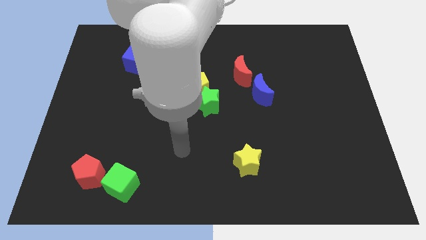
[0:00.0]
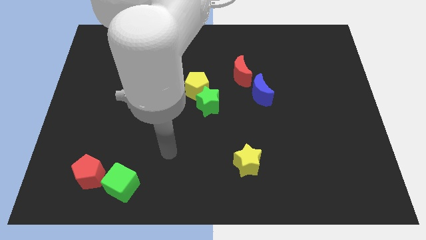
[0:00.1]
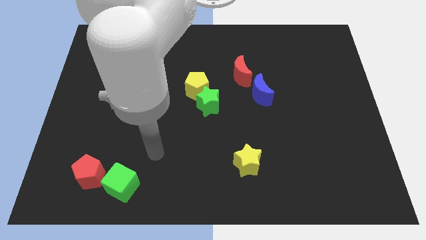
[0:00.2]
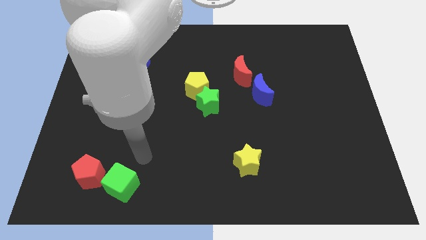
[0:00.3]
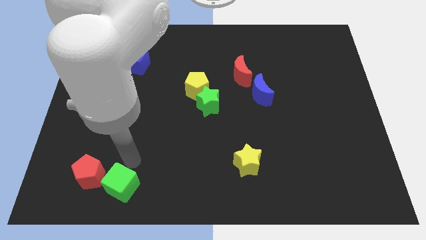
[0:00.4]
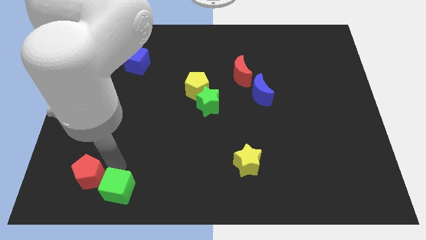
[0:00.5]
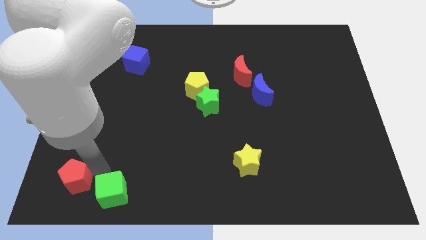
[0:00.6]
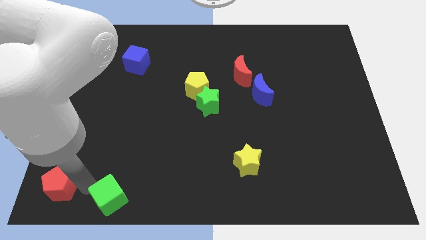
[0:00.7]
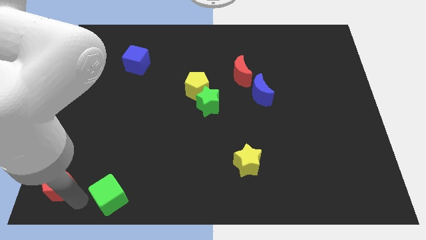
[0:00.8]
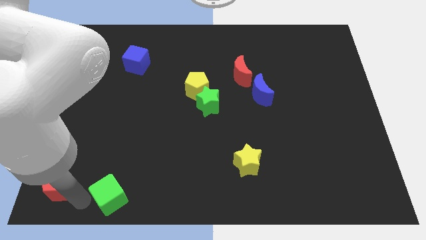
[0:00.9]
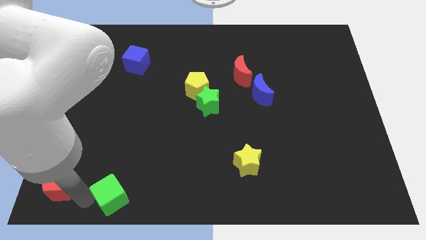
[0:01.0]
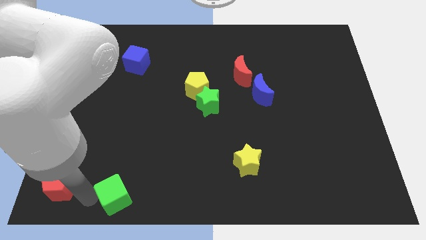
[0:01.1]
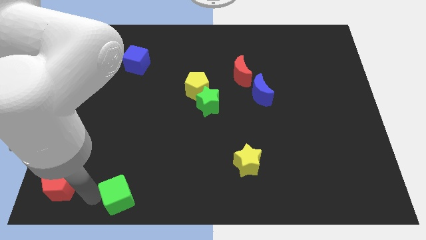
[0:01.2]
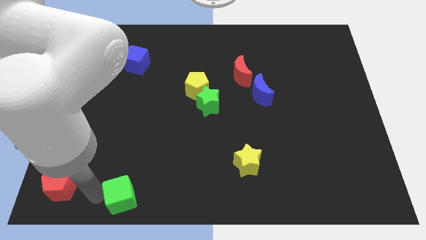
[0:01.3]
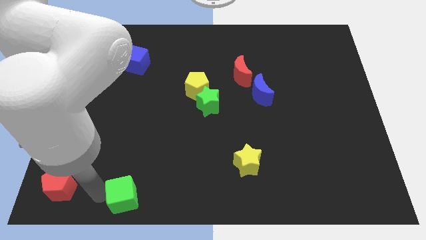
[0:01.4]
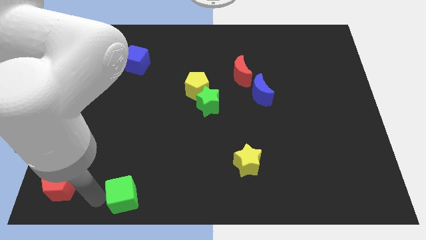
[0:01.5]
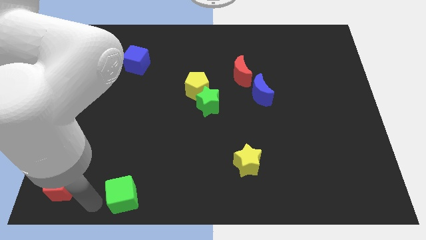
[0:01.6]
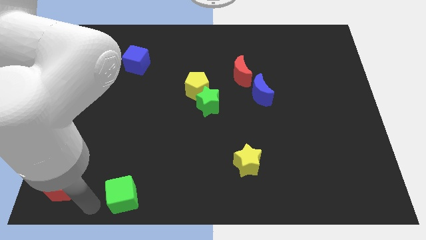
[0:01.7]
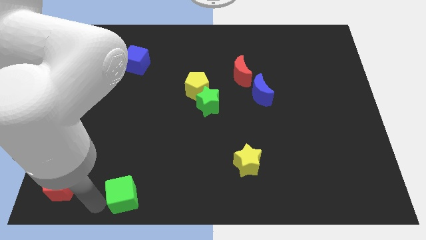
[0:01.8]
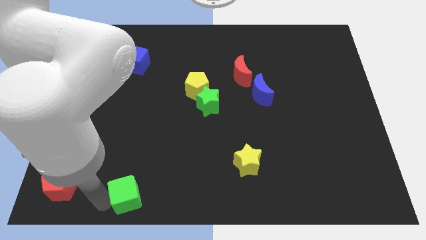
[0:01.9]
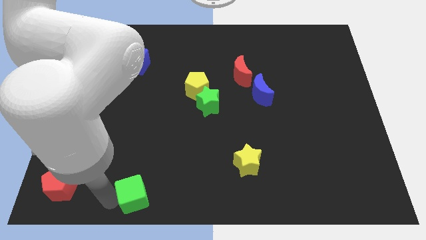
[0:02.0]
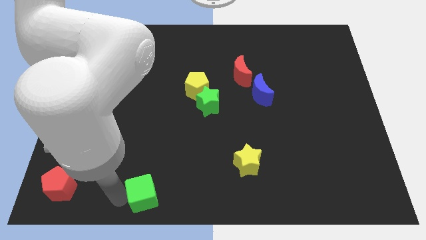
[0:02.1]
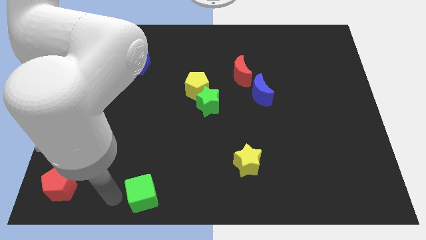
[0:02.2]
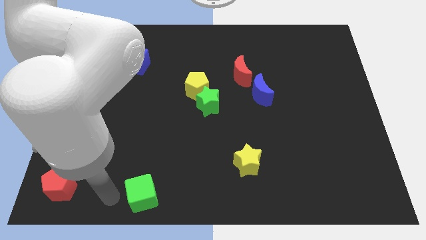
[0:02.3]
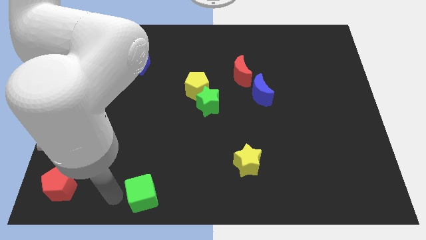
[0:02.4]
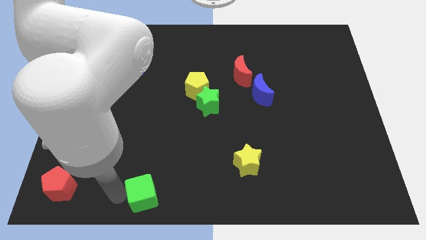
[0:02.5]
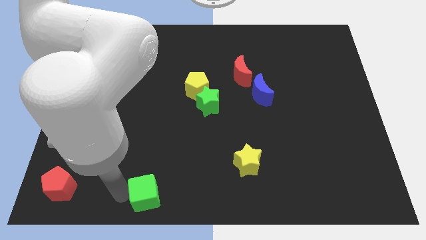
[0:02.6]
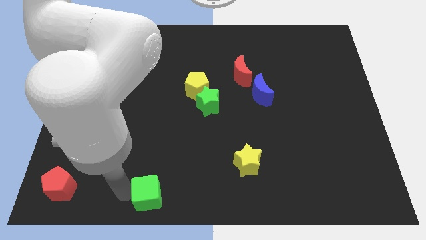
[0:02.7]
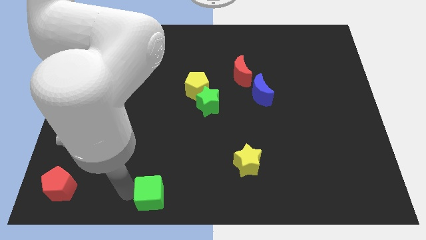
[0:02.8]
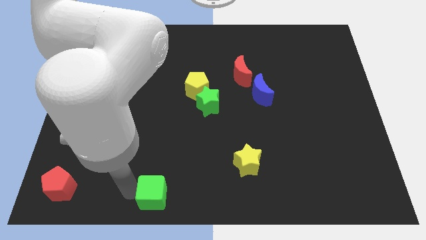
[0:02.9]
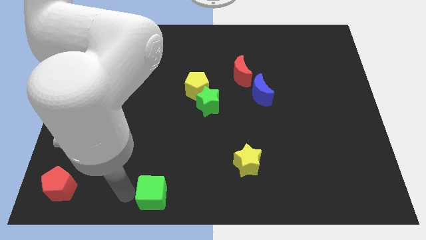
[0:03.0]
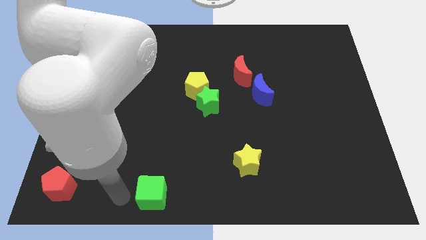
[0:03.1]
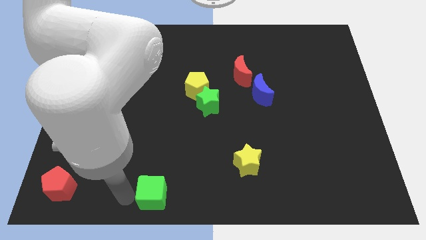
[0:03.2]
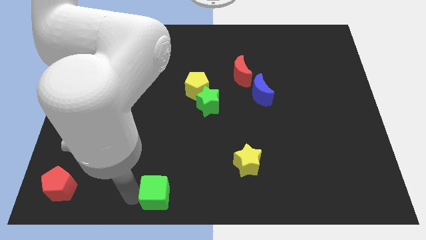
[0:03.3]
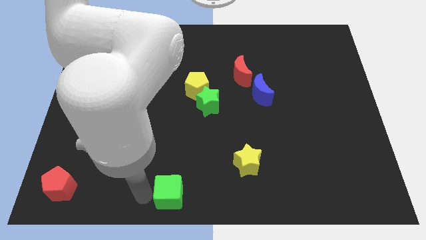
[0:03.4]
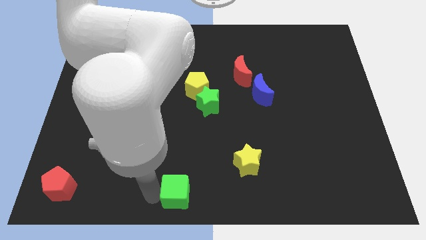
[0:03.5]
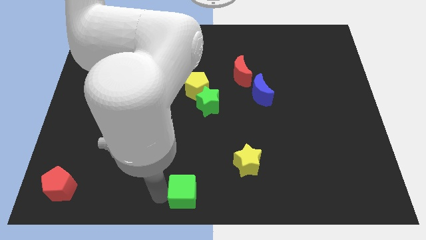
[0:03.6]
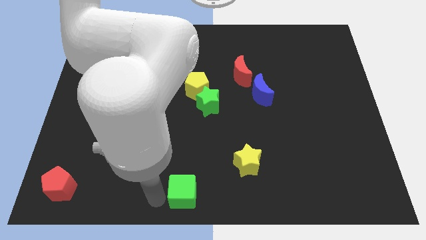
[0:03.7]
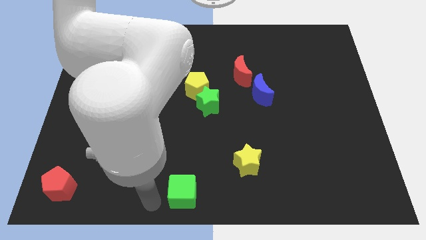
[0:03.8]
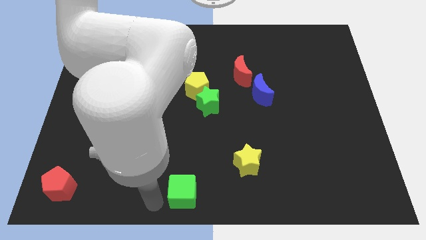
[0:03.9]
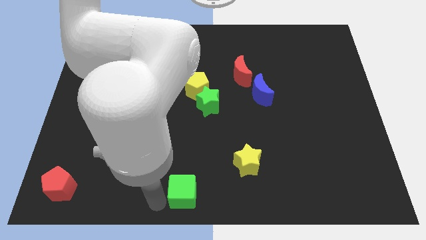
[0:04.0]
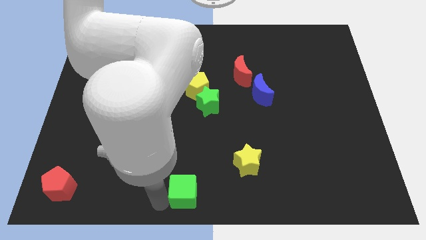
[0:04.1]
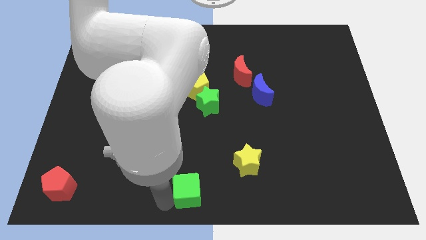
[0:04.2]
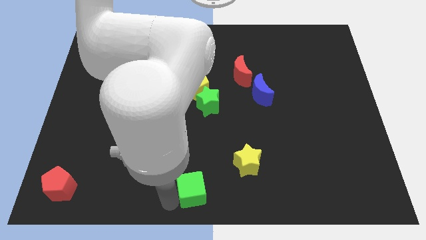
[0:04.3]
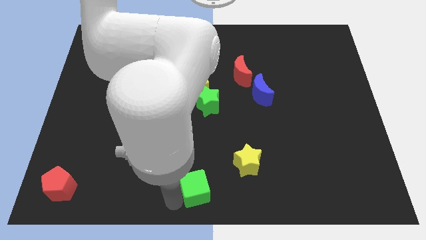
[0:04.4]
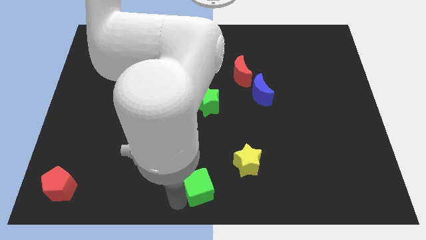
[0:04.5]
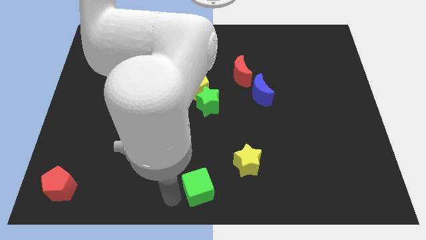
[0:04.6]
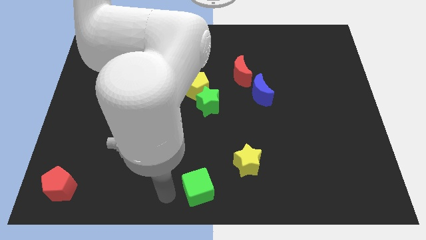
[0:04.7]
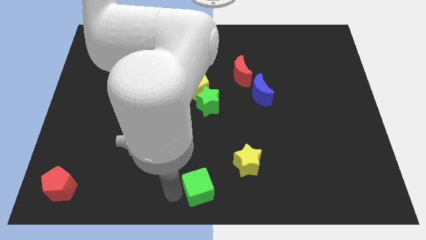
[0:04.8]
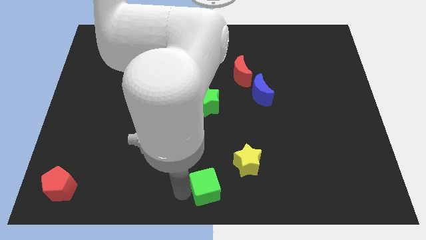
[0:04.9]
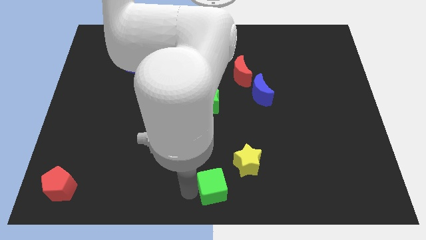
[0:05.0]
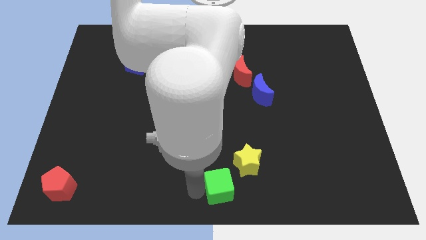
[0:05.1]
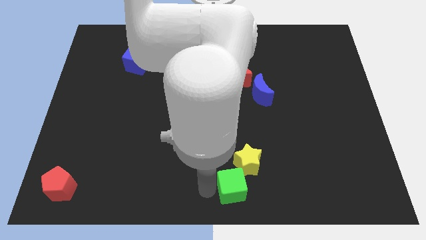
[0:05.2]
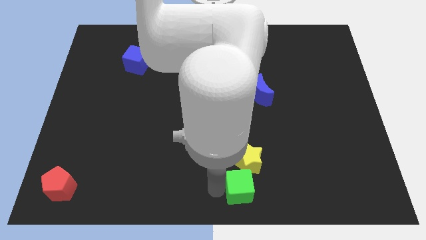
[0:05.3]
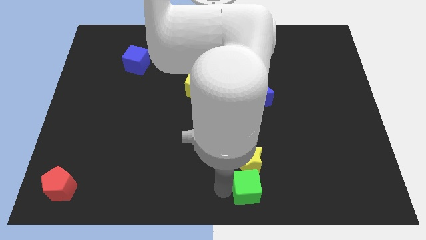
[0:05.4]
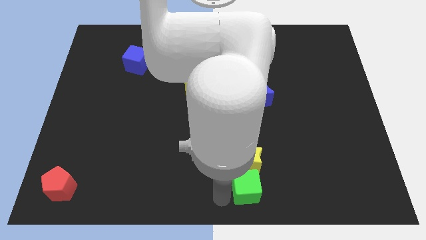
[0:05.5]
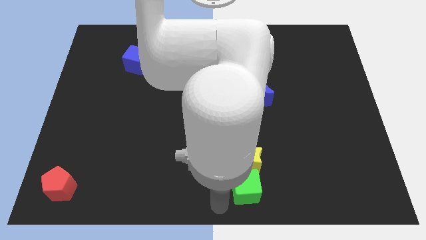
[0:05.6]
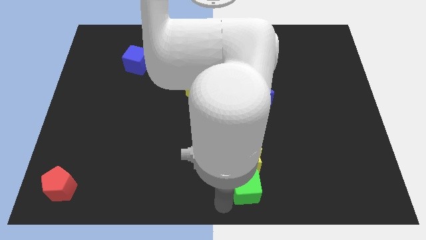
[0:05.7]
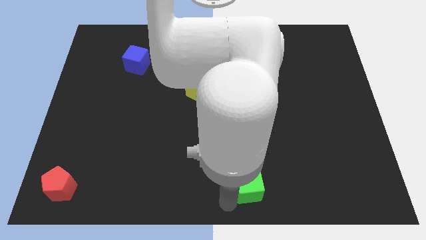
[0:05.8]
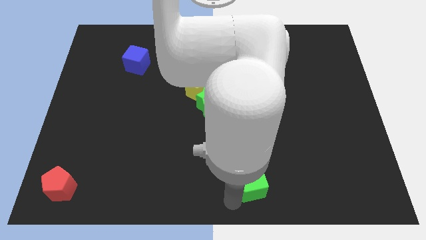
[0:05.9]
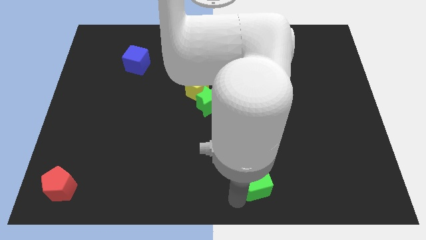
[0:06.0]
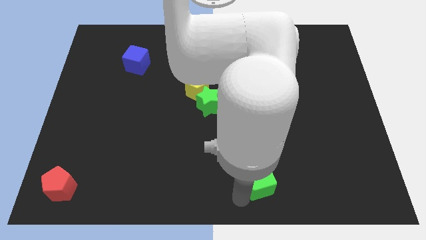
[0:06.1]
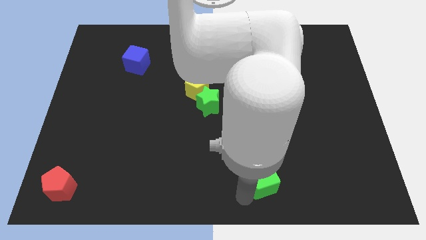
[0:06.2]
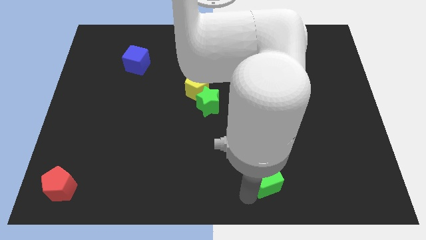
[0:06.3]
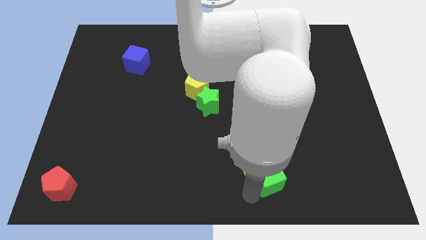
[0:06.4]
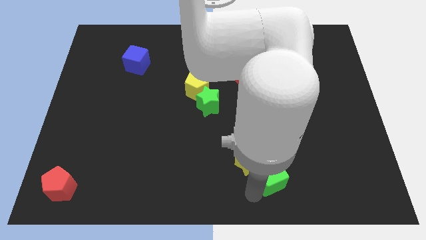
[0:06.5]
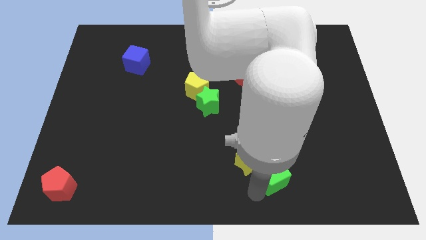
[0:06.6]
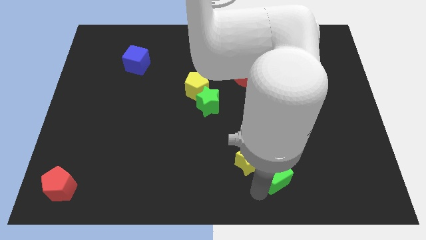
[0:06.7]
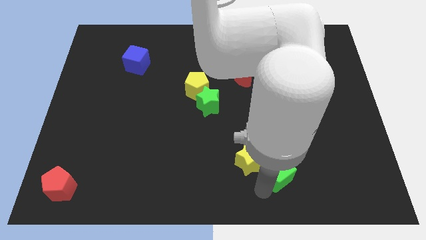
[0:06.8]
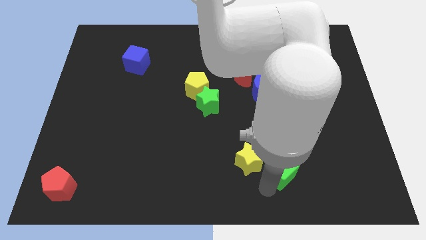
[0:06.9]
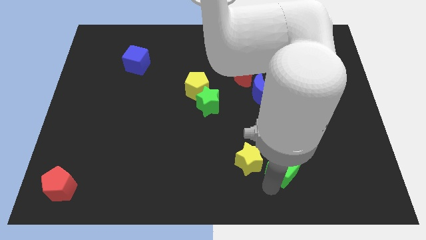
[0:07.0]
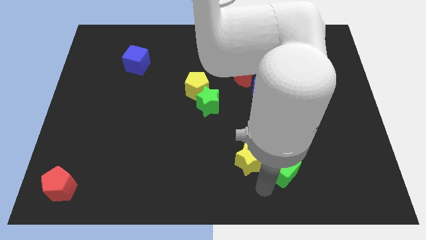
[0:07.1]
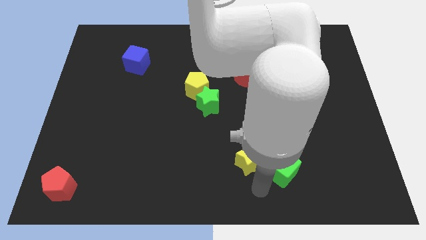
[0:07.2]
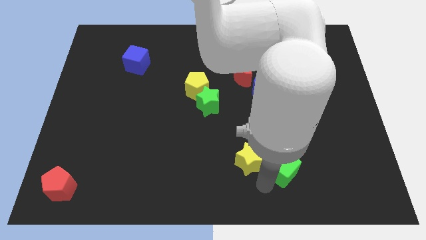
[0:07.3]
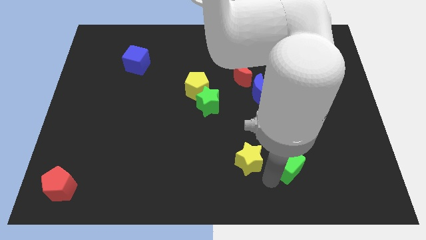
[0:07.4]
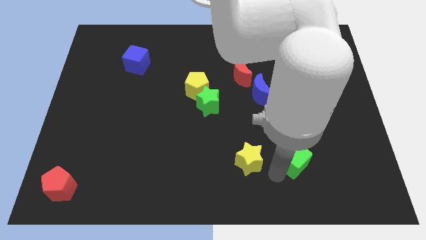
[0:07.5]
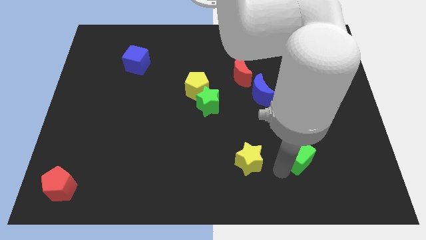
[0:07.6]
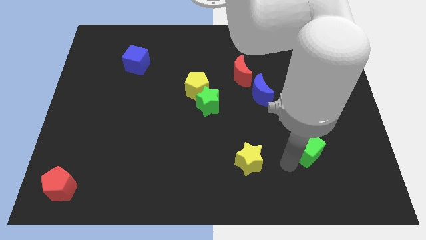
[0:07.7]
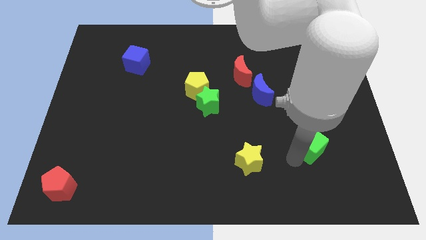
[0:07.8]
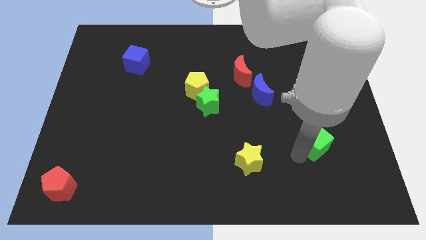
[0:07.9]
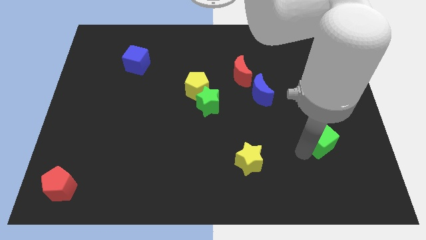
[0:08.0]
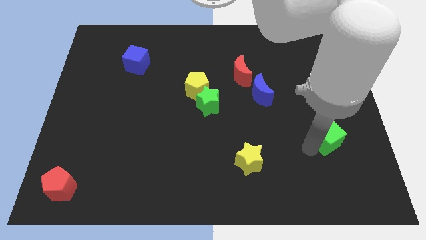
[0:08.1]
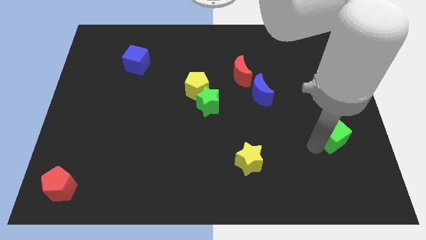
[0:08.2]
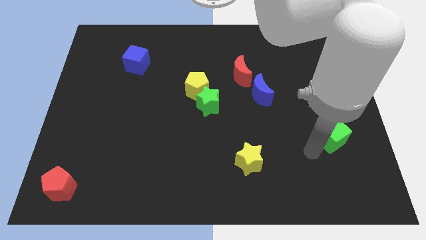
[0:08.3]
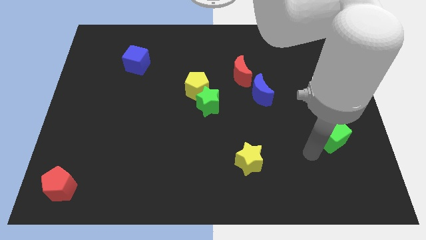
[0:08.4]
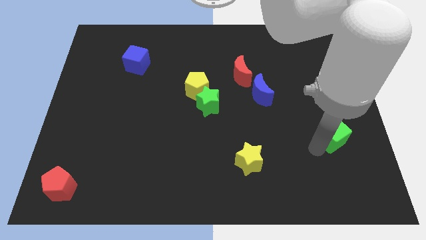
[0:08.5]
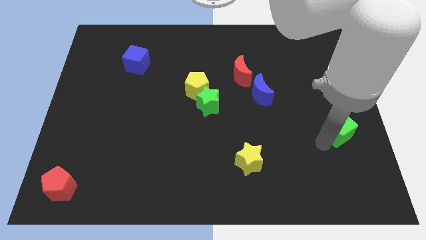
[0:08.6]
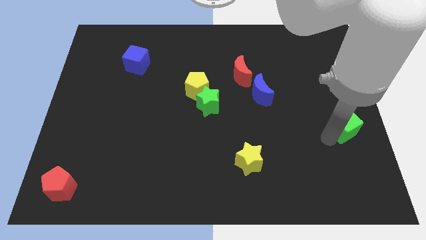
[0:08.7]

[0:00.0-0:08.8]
put the green cube to the center right
